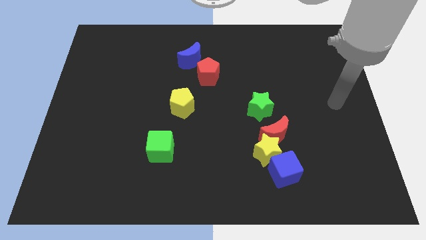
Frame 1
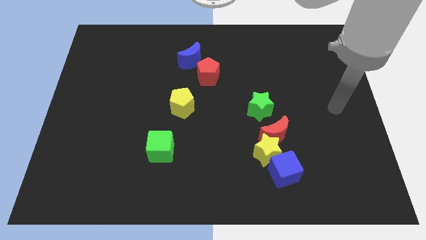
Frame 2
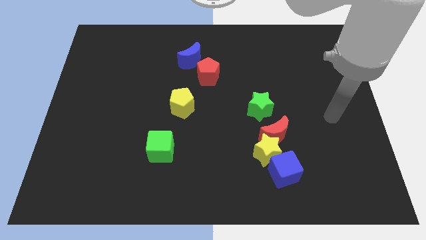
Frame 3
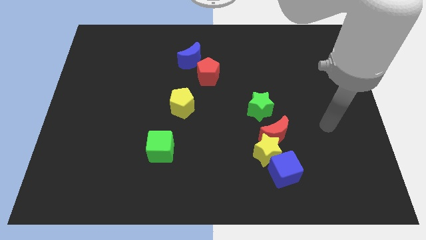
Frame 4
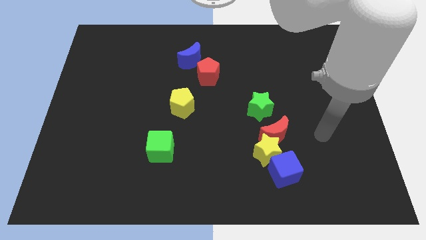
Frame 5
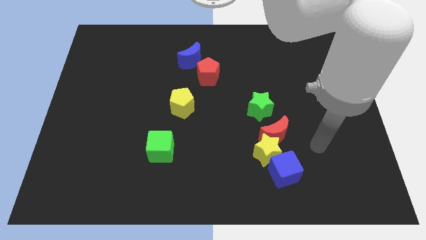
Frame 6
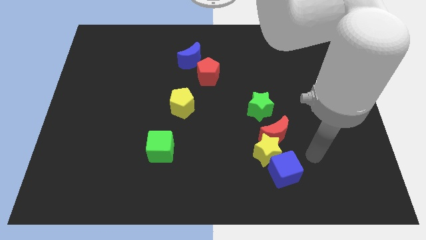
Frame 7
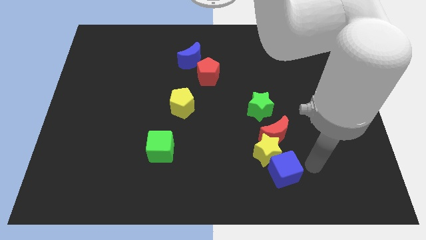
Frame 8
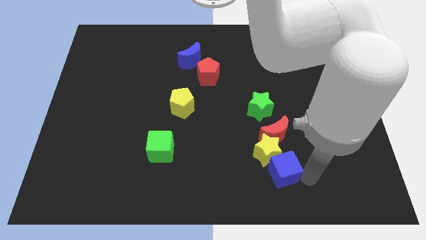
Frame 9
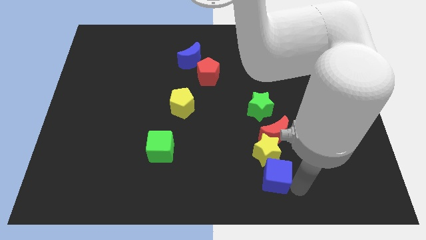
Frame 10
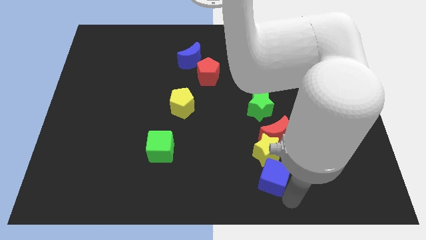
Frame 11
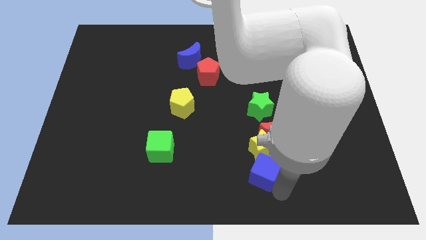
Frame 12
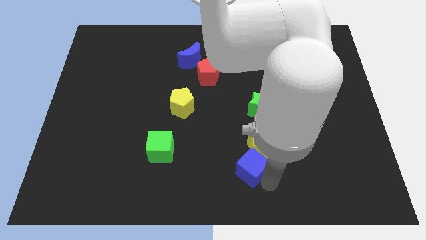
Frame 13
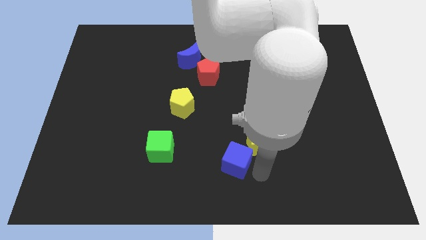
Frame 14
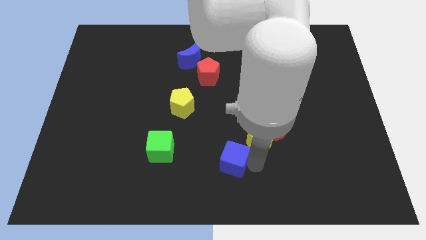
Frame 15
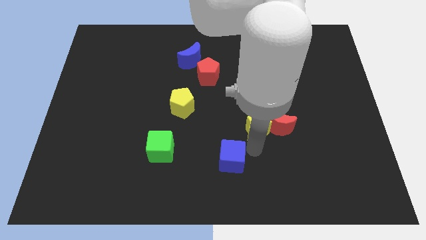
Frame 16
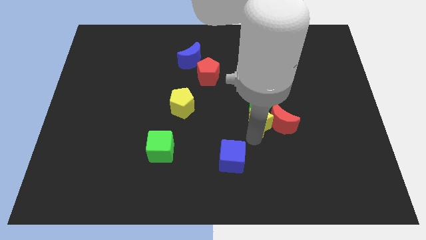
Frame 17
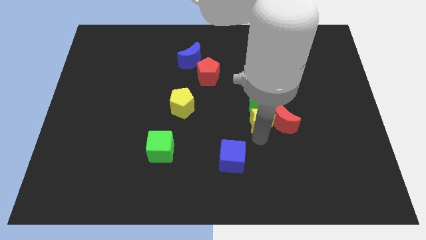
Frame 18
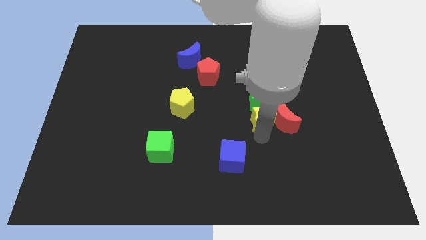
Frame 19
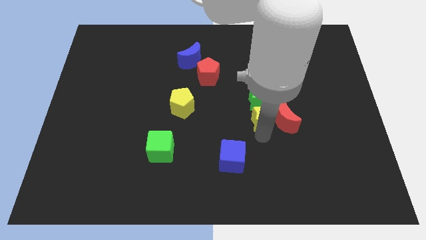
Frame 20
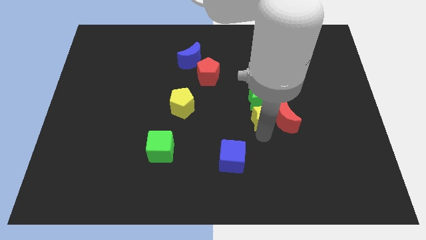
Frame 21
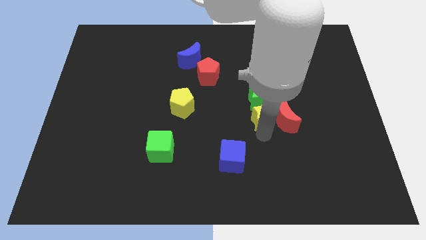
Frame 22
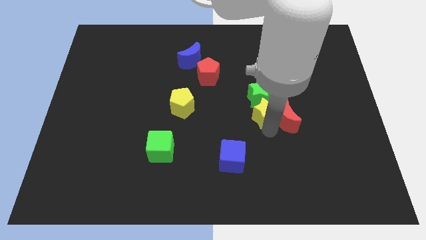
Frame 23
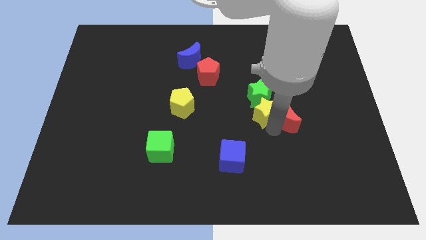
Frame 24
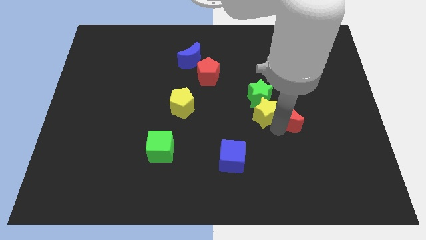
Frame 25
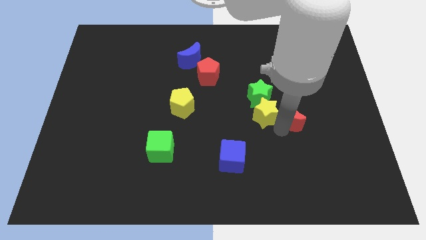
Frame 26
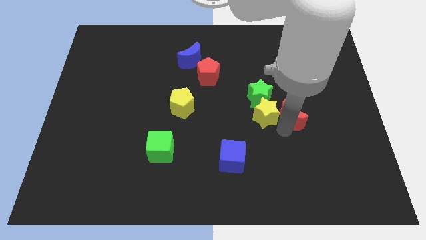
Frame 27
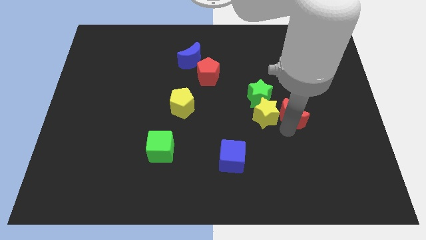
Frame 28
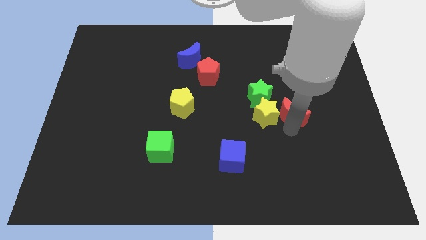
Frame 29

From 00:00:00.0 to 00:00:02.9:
slide the red moon upwards and right a little

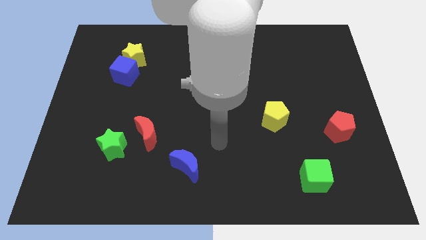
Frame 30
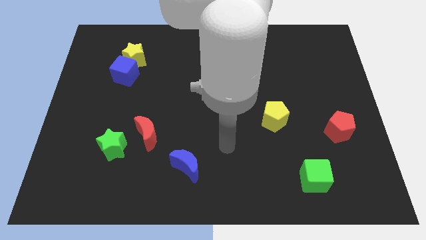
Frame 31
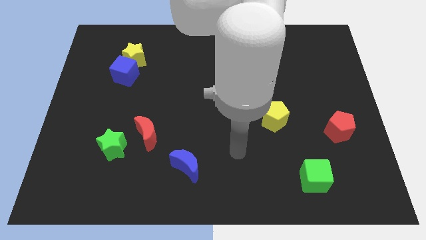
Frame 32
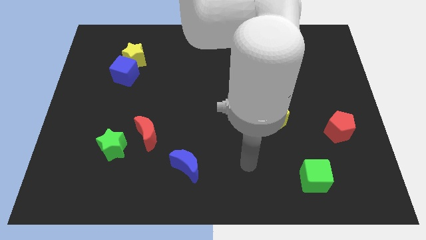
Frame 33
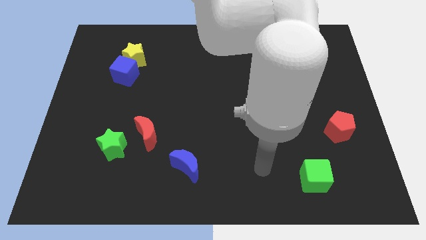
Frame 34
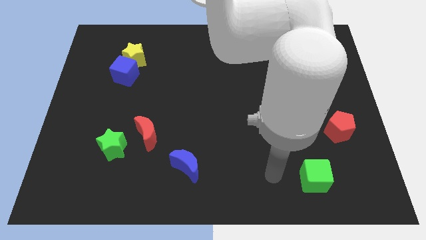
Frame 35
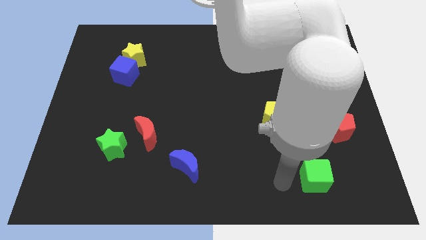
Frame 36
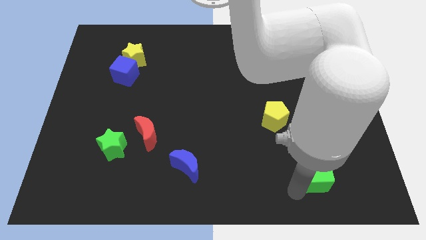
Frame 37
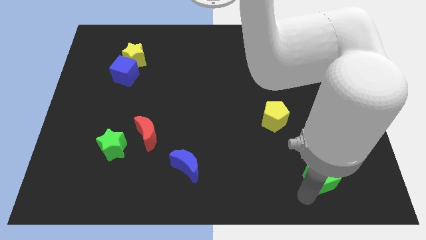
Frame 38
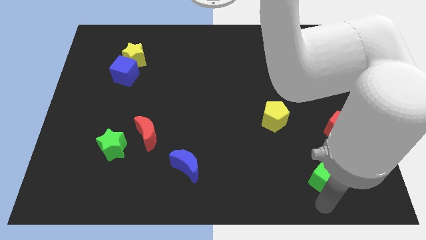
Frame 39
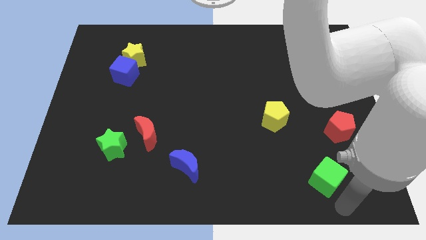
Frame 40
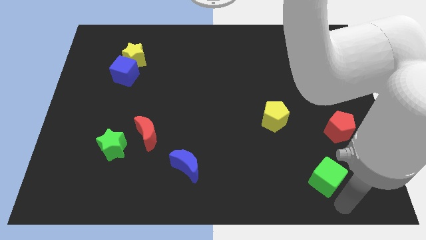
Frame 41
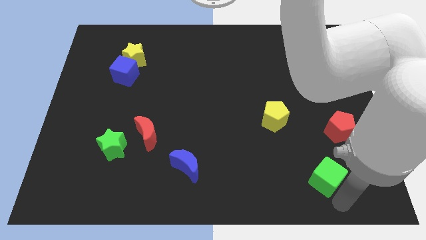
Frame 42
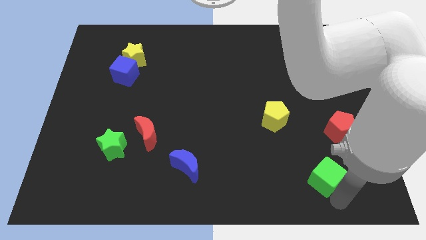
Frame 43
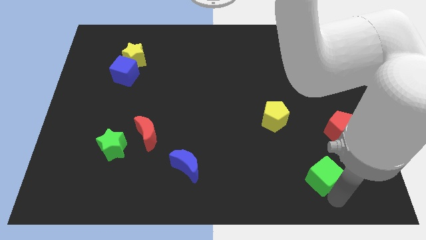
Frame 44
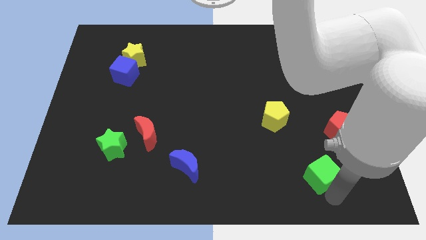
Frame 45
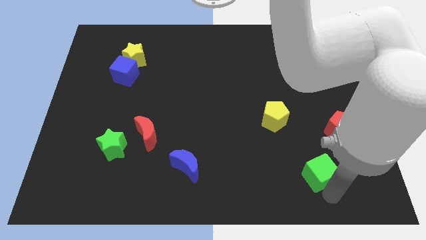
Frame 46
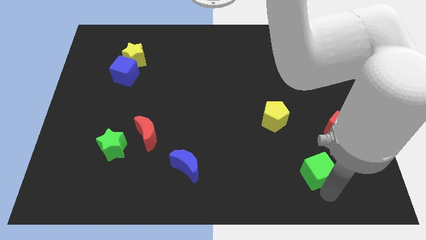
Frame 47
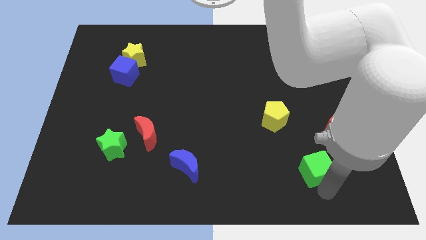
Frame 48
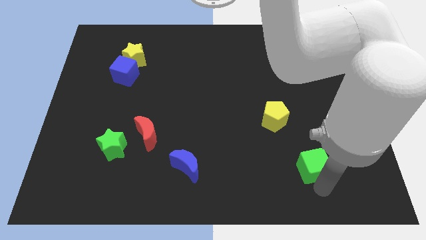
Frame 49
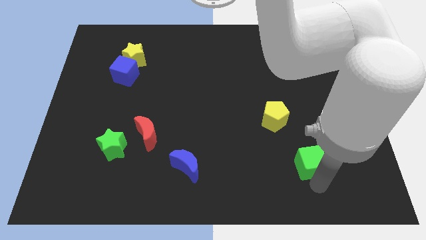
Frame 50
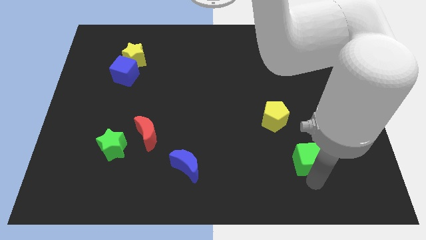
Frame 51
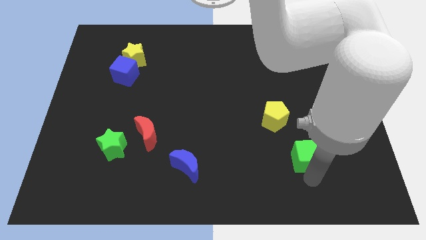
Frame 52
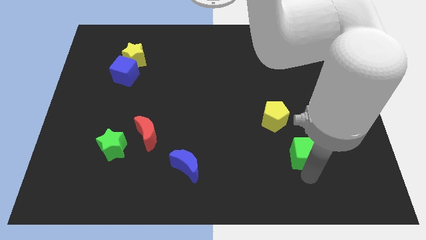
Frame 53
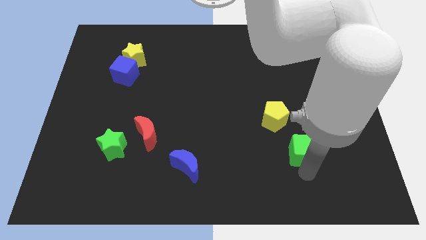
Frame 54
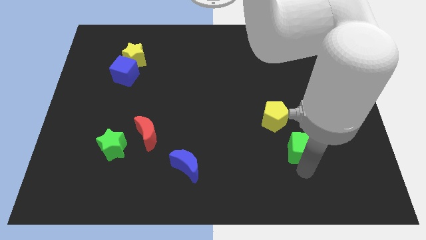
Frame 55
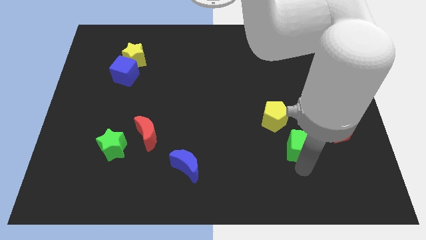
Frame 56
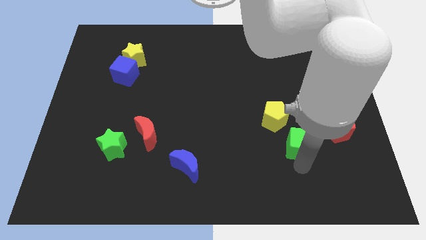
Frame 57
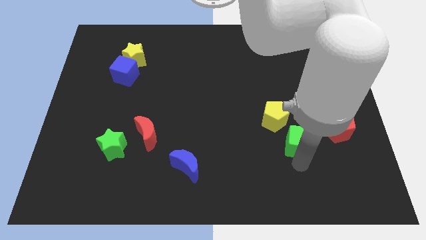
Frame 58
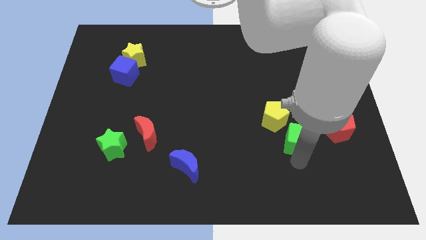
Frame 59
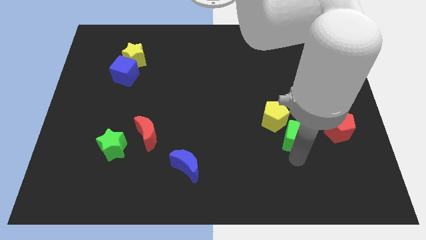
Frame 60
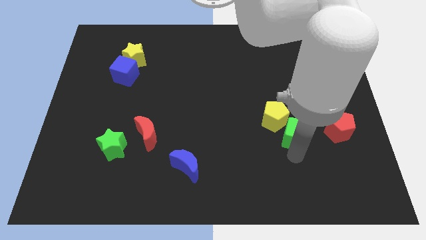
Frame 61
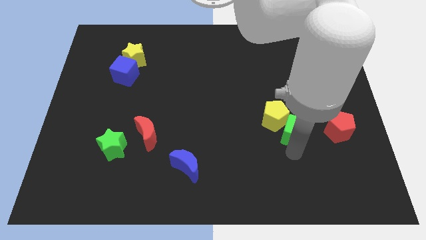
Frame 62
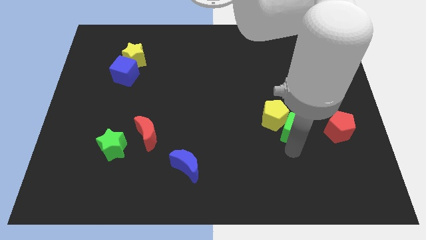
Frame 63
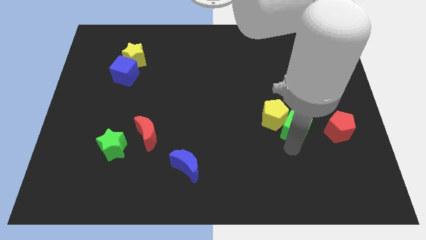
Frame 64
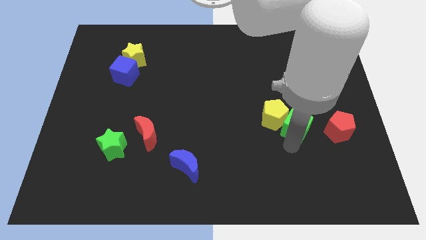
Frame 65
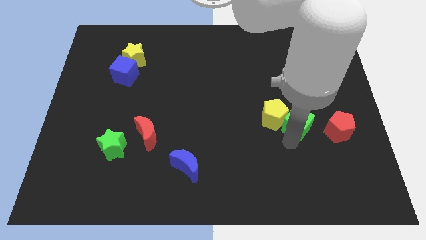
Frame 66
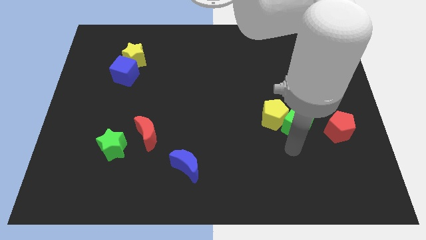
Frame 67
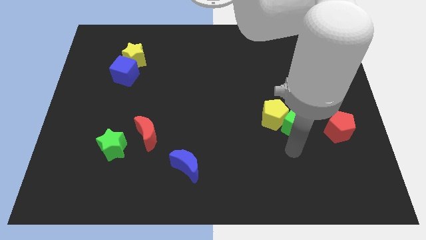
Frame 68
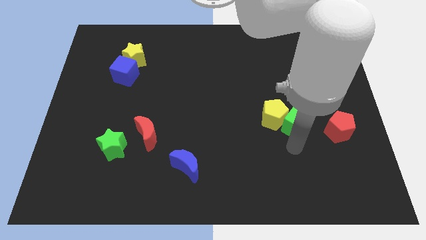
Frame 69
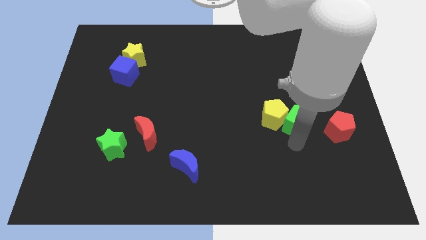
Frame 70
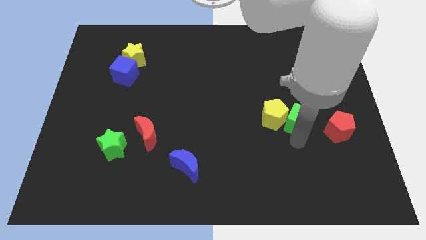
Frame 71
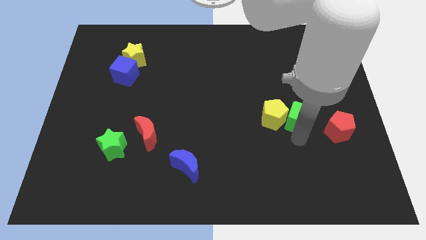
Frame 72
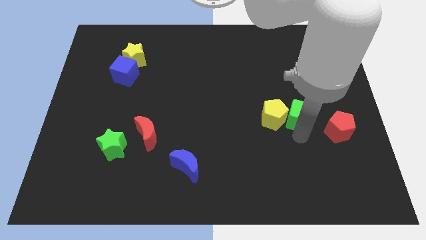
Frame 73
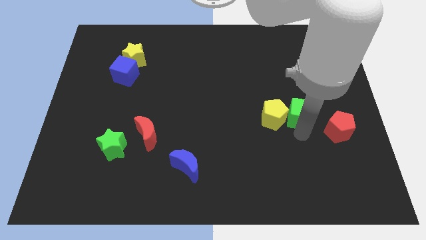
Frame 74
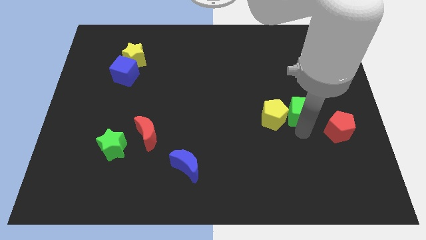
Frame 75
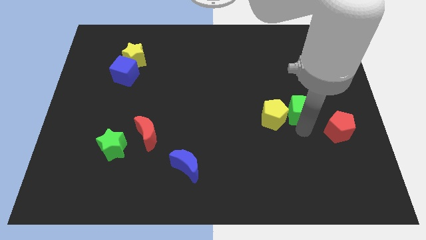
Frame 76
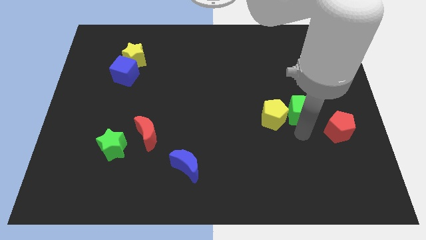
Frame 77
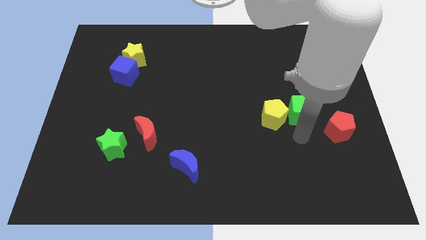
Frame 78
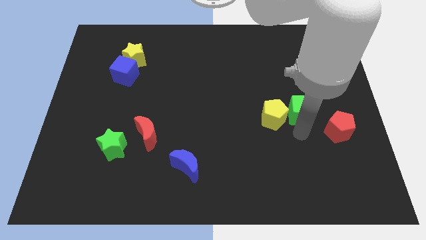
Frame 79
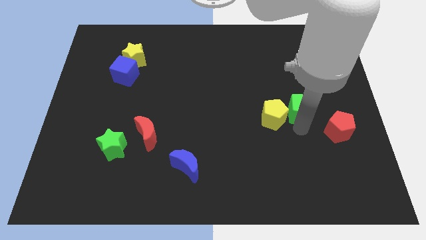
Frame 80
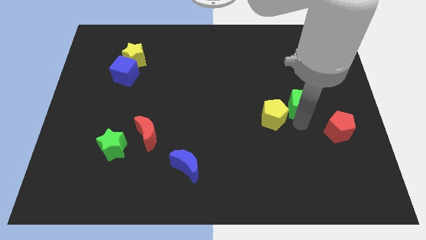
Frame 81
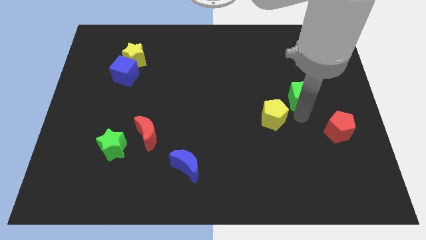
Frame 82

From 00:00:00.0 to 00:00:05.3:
push the green cube upwards
